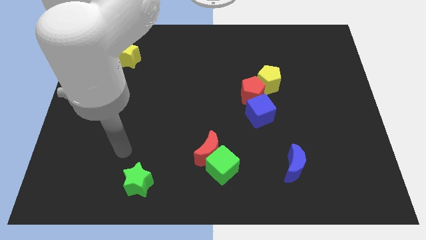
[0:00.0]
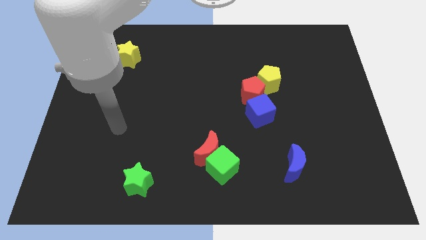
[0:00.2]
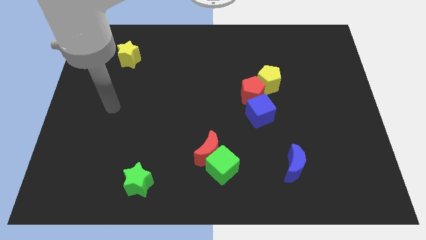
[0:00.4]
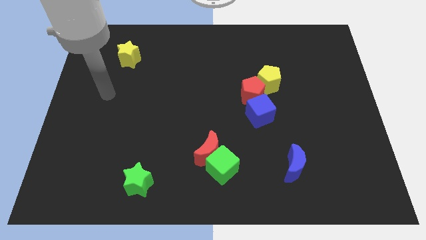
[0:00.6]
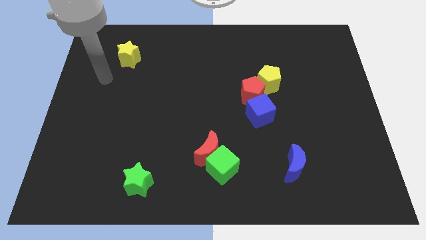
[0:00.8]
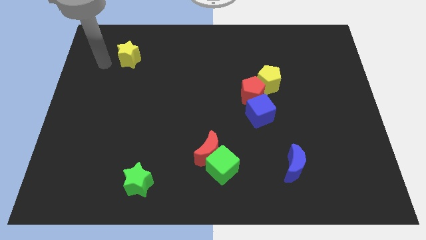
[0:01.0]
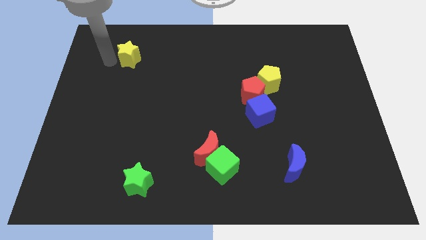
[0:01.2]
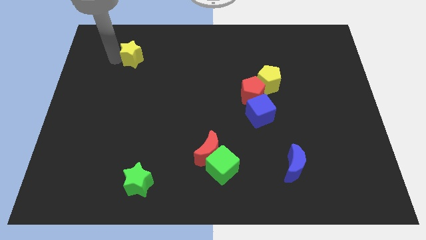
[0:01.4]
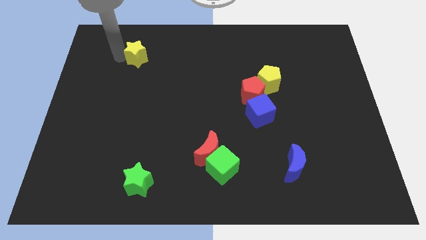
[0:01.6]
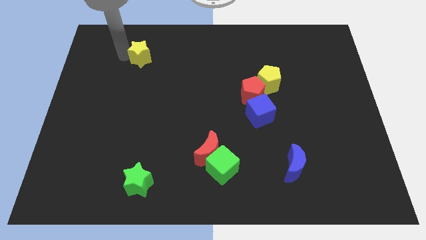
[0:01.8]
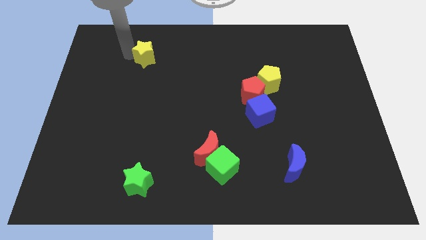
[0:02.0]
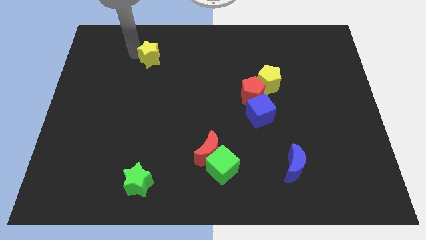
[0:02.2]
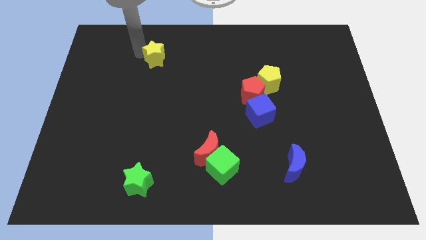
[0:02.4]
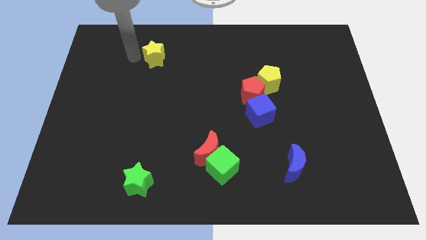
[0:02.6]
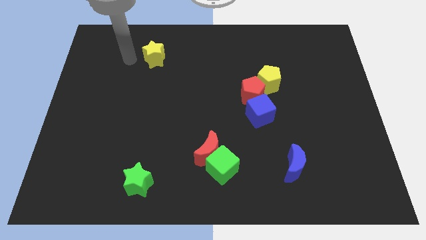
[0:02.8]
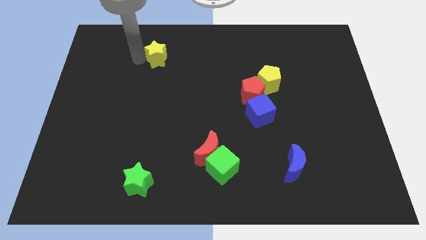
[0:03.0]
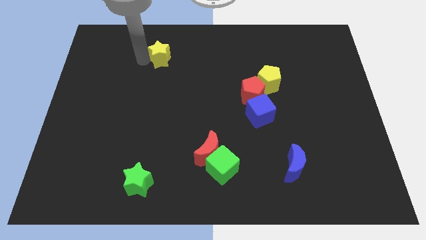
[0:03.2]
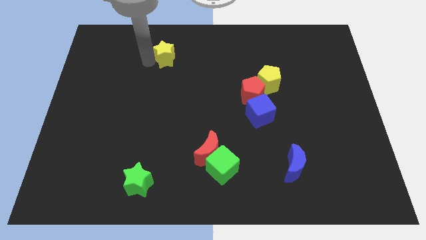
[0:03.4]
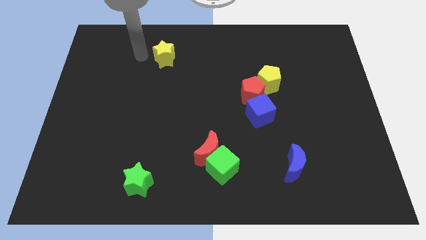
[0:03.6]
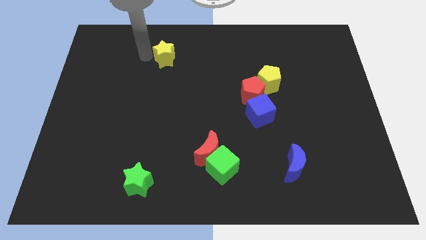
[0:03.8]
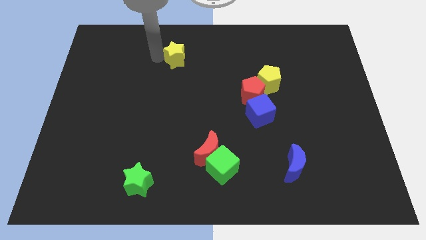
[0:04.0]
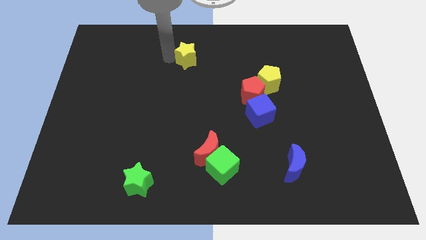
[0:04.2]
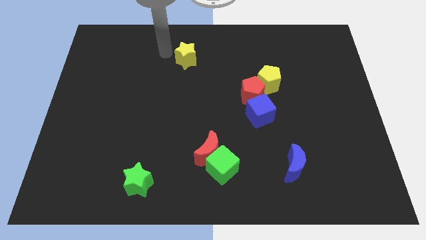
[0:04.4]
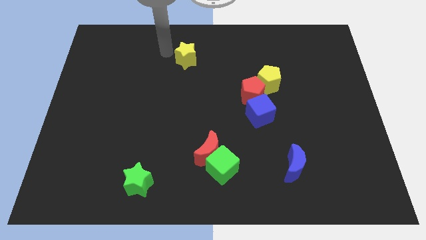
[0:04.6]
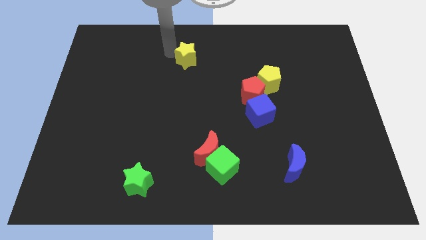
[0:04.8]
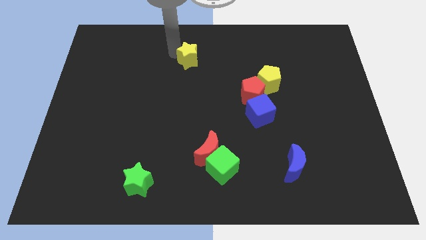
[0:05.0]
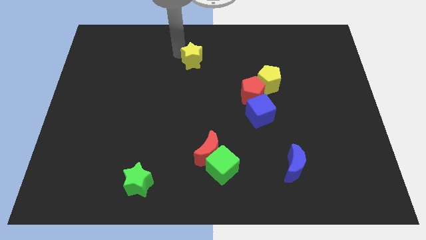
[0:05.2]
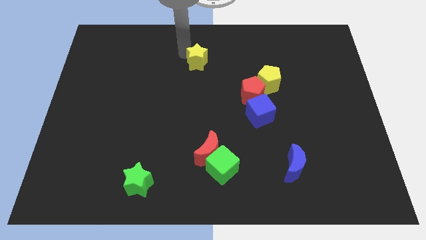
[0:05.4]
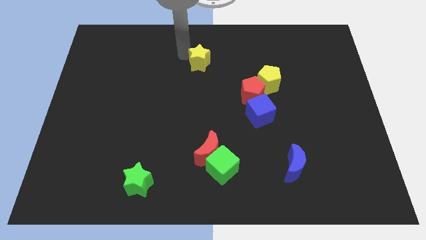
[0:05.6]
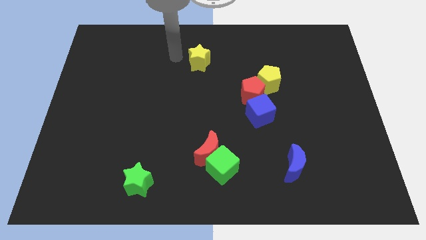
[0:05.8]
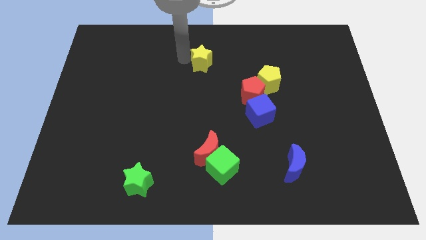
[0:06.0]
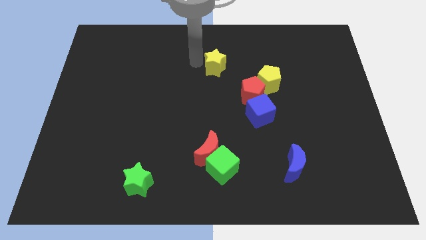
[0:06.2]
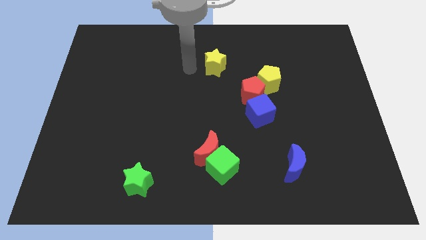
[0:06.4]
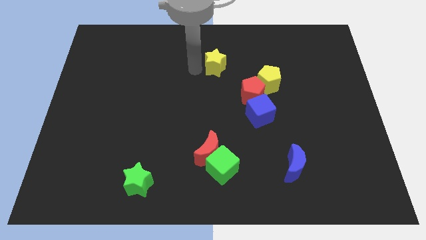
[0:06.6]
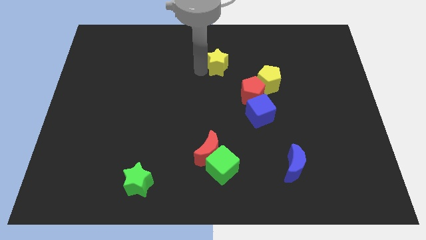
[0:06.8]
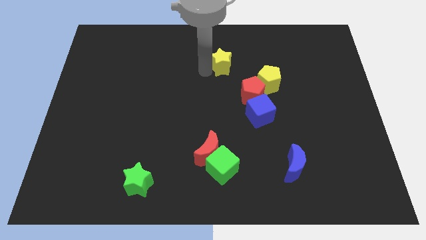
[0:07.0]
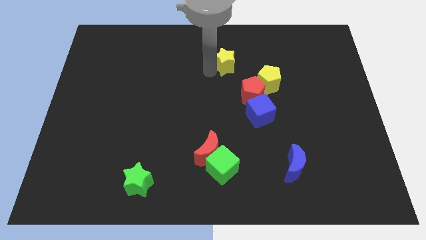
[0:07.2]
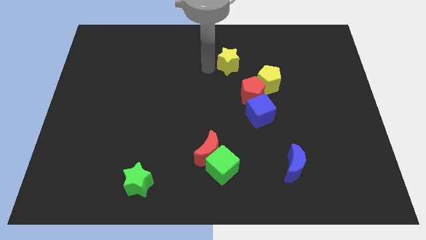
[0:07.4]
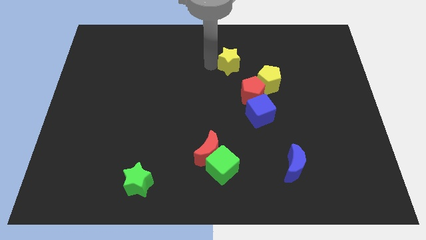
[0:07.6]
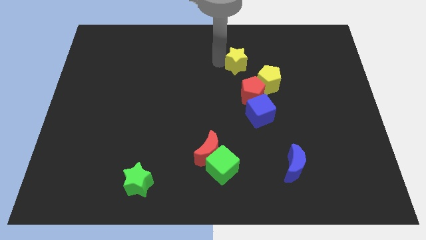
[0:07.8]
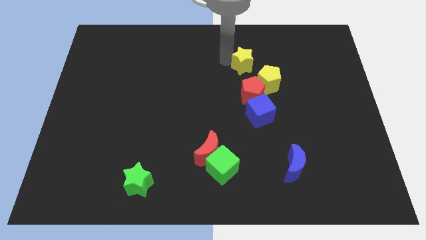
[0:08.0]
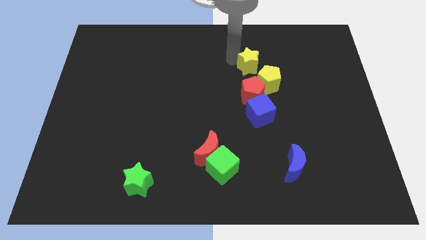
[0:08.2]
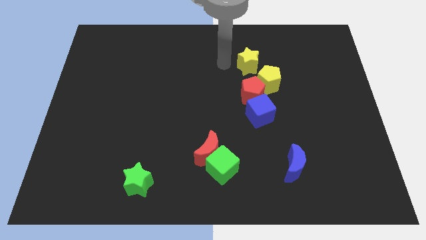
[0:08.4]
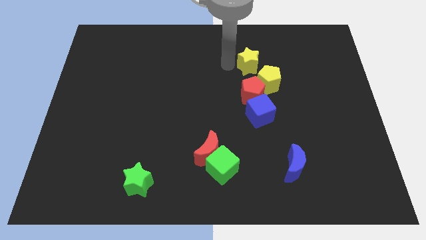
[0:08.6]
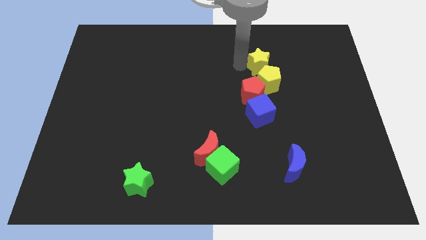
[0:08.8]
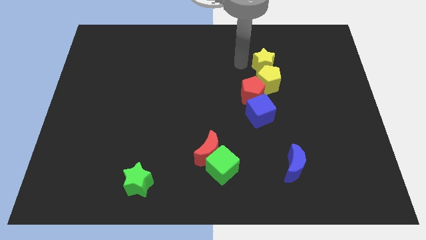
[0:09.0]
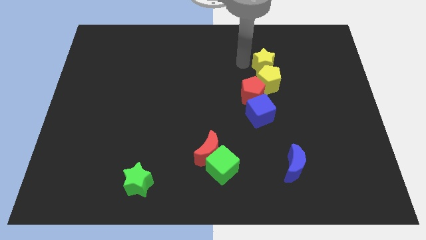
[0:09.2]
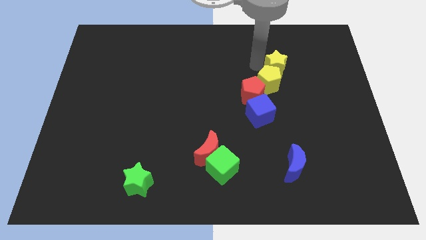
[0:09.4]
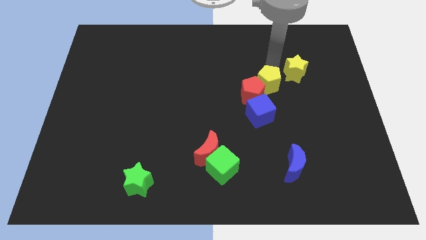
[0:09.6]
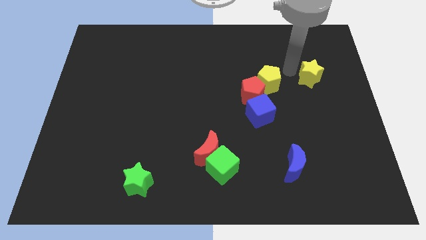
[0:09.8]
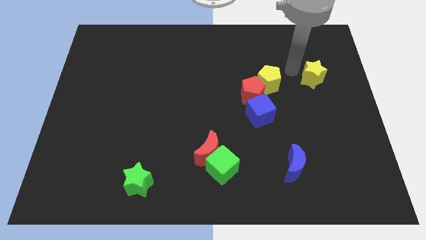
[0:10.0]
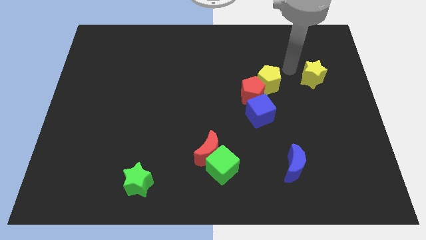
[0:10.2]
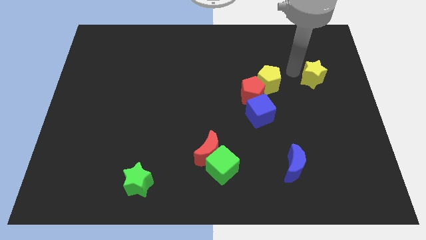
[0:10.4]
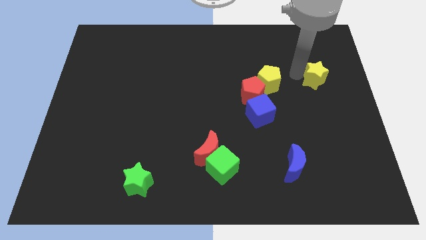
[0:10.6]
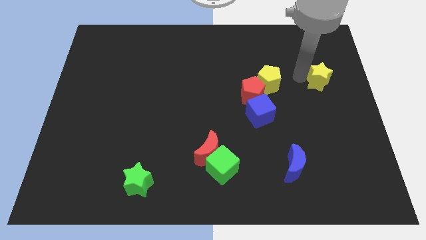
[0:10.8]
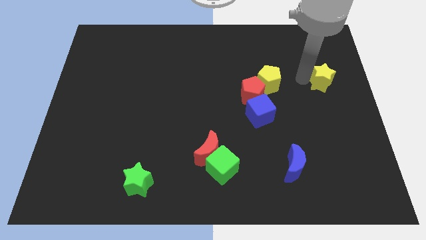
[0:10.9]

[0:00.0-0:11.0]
put the yellow star to the center right

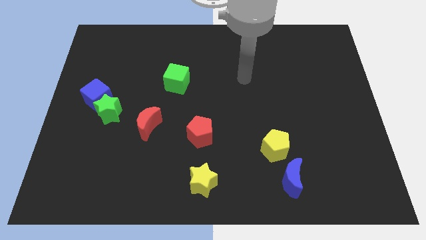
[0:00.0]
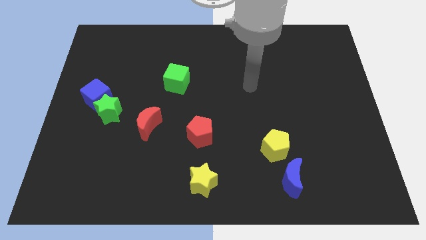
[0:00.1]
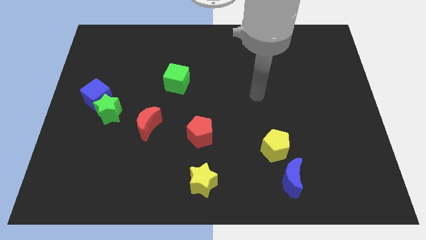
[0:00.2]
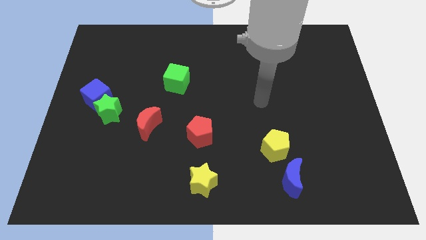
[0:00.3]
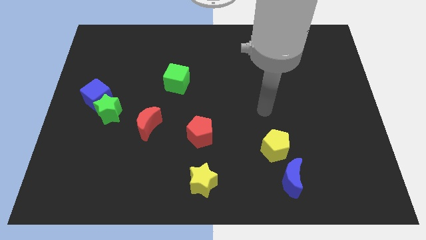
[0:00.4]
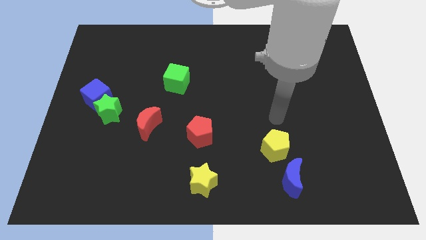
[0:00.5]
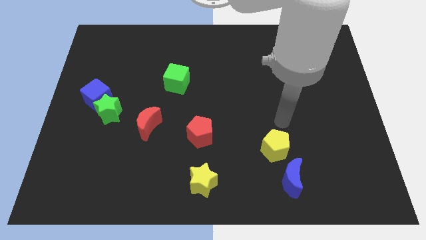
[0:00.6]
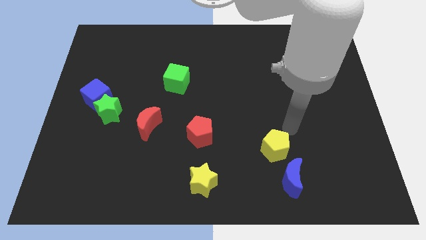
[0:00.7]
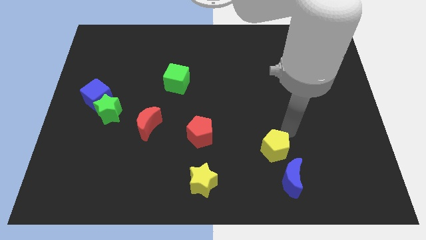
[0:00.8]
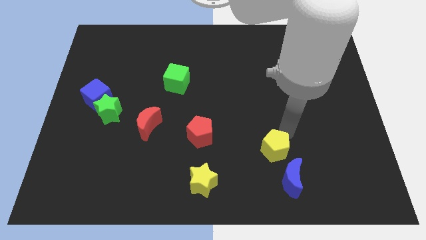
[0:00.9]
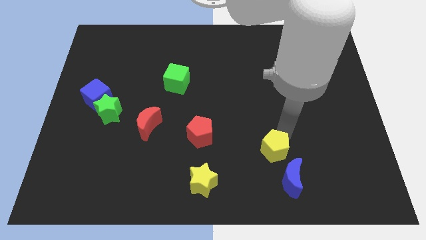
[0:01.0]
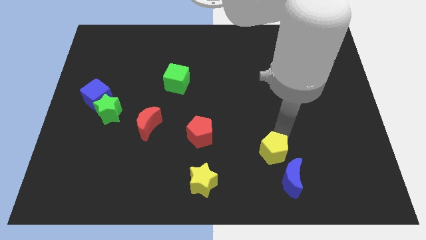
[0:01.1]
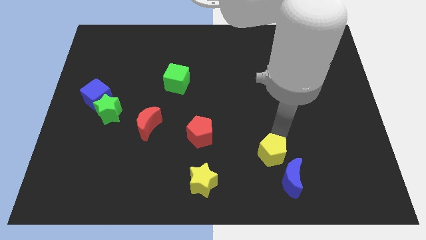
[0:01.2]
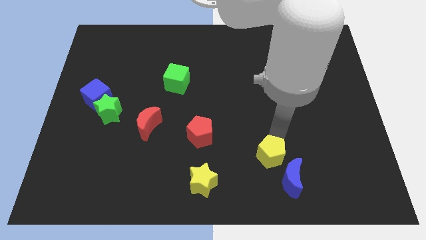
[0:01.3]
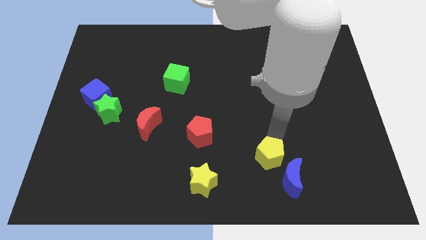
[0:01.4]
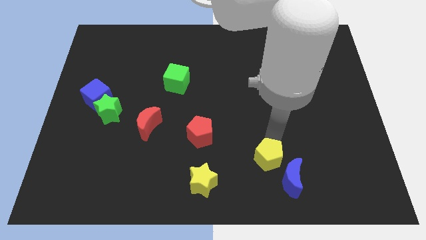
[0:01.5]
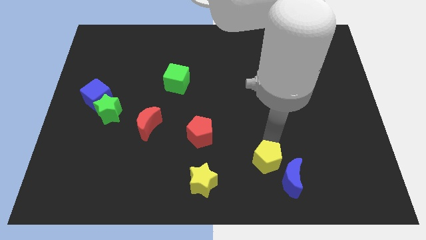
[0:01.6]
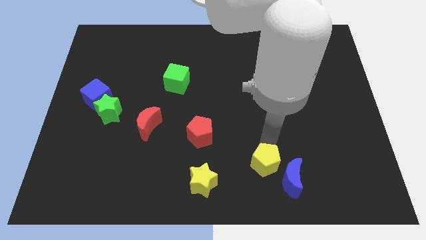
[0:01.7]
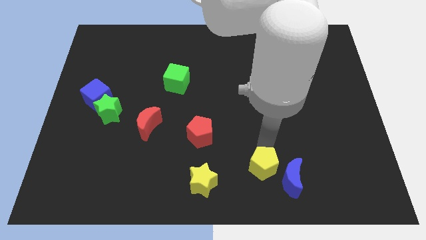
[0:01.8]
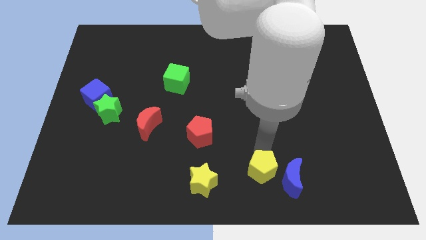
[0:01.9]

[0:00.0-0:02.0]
put the yellow pentagon to the bottom side
